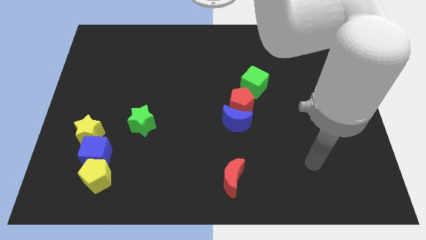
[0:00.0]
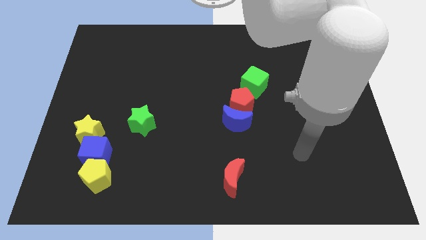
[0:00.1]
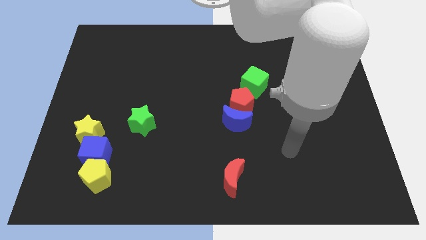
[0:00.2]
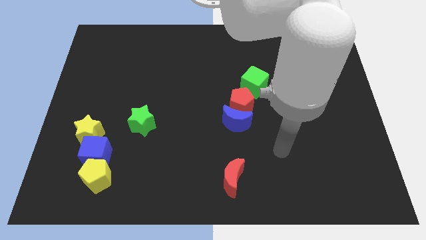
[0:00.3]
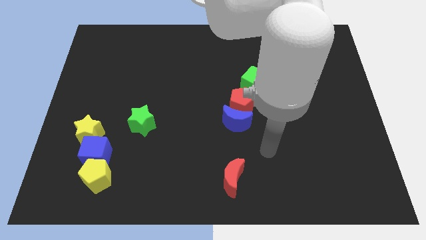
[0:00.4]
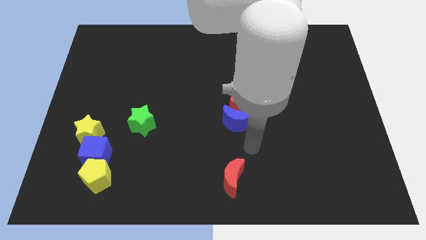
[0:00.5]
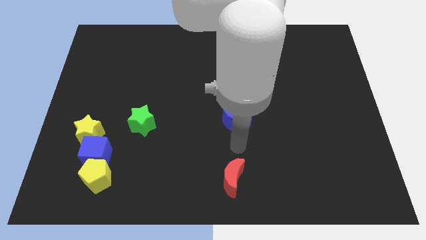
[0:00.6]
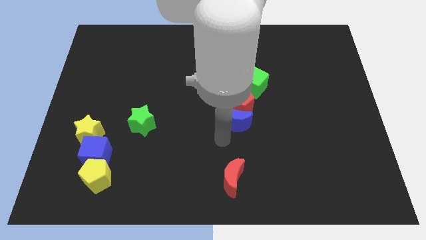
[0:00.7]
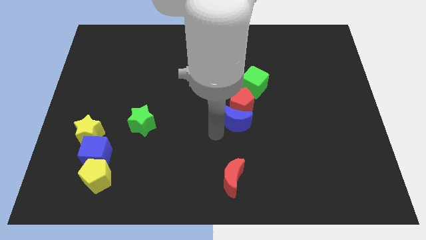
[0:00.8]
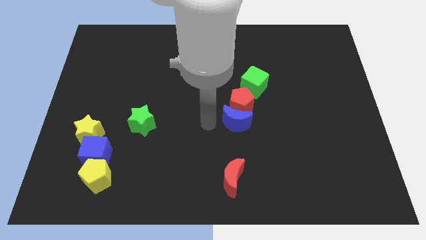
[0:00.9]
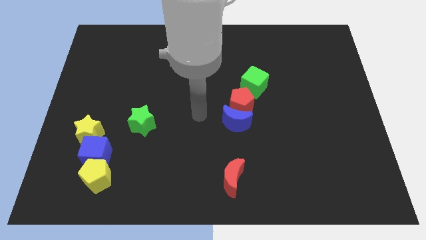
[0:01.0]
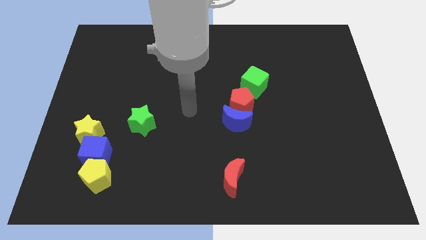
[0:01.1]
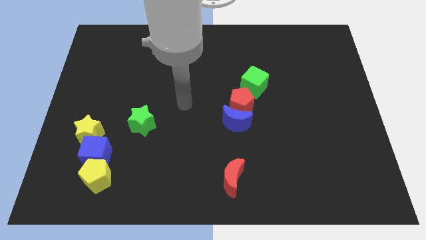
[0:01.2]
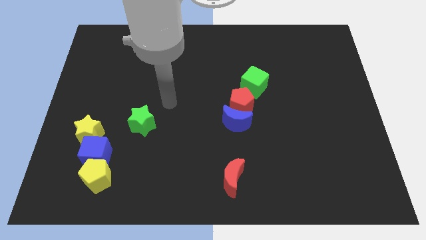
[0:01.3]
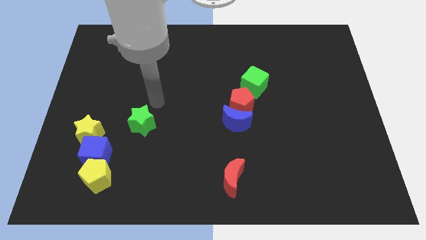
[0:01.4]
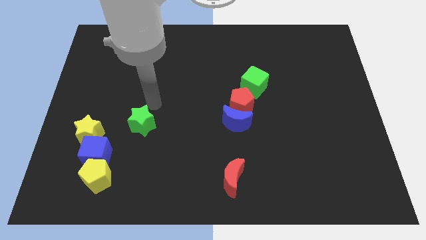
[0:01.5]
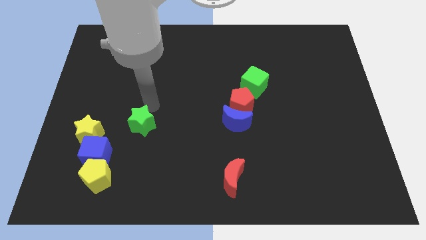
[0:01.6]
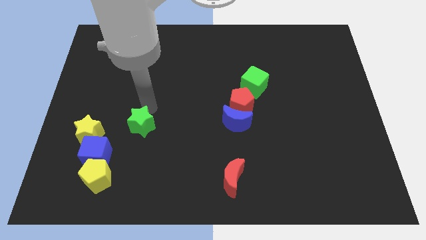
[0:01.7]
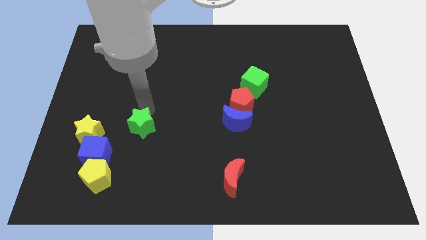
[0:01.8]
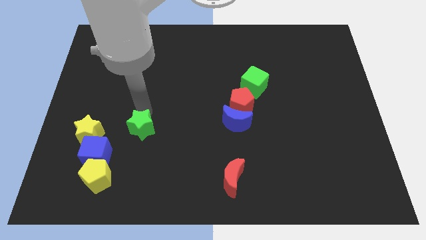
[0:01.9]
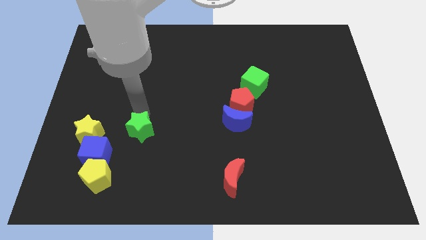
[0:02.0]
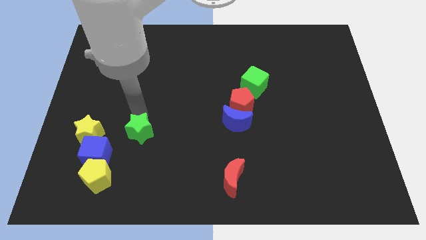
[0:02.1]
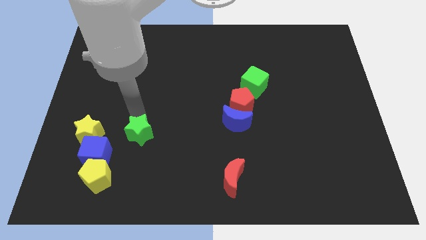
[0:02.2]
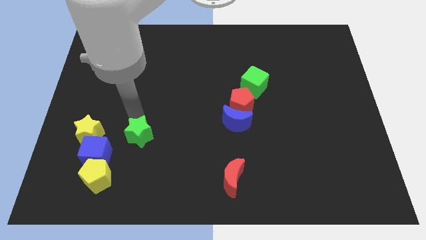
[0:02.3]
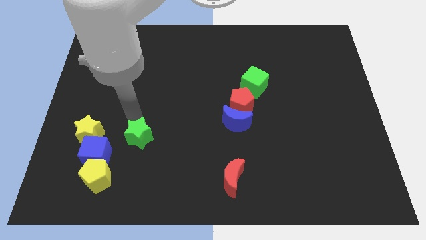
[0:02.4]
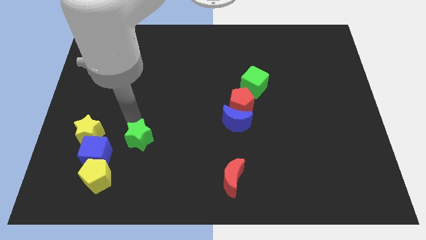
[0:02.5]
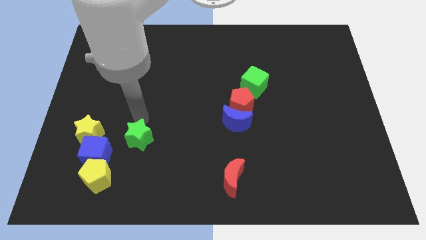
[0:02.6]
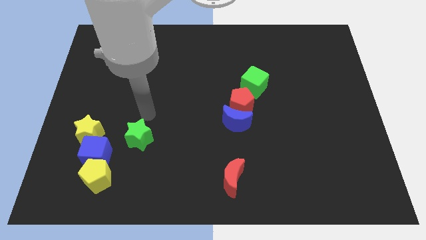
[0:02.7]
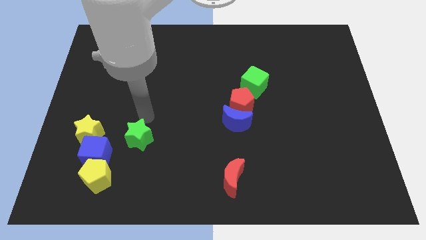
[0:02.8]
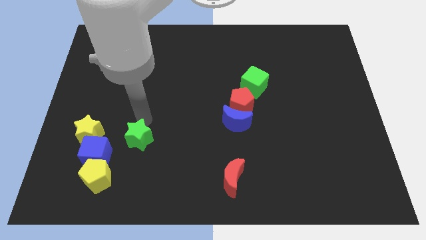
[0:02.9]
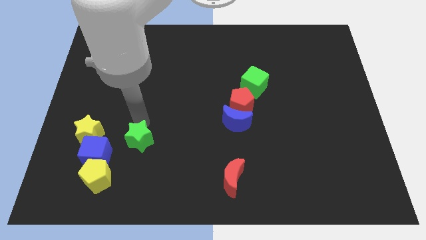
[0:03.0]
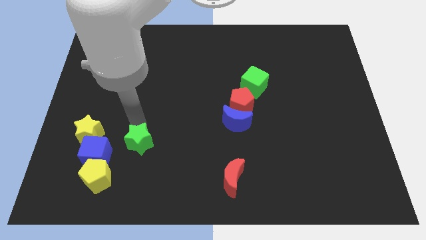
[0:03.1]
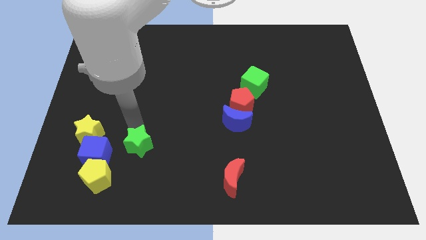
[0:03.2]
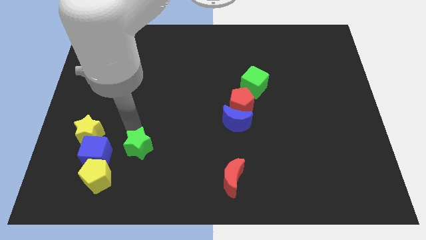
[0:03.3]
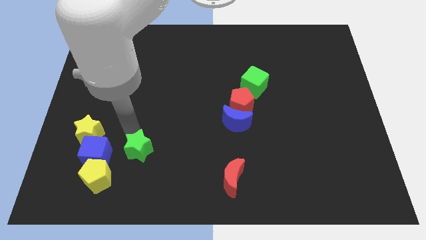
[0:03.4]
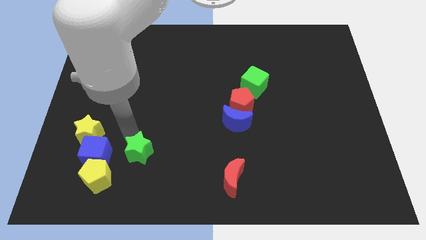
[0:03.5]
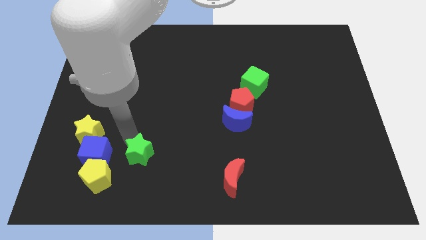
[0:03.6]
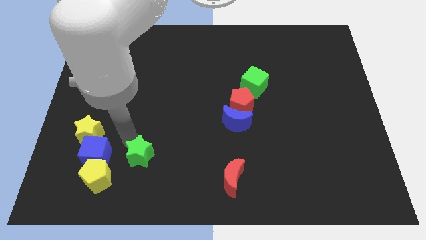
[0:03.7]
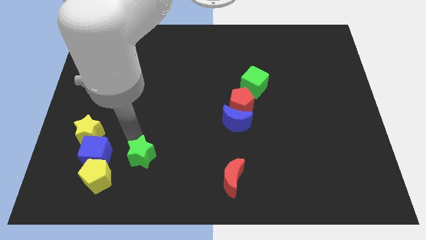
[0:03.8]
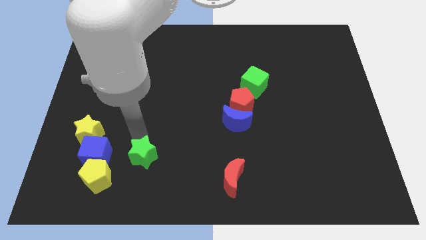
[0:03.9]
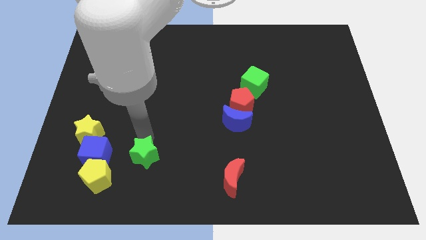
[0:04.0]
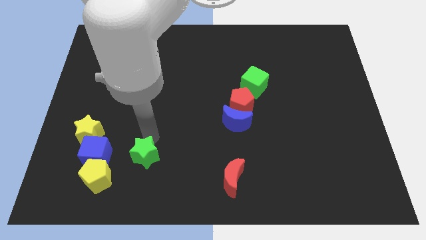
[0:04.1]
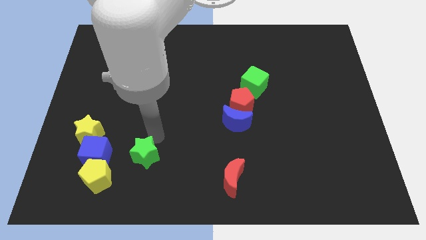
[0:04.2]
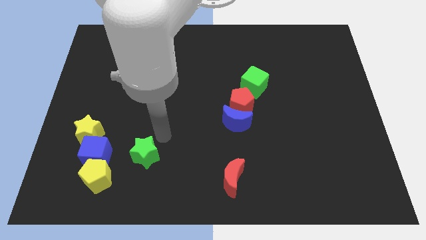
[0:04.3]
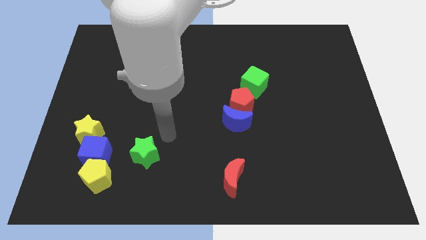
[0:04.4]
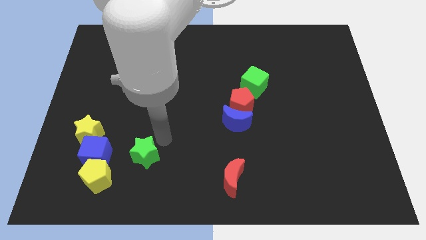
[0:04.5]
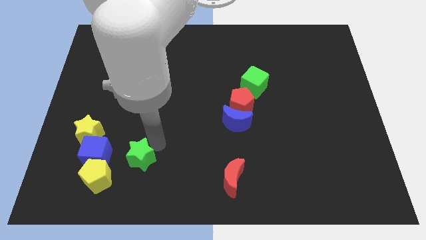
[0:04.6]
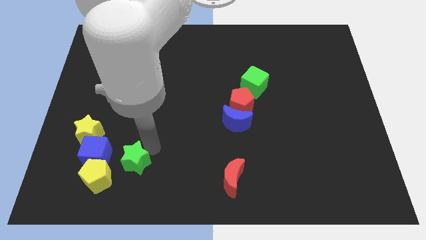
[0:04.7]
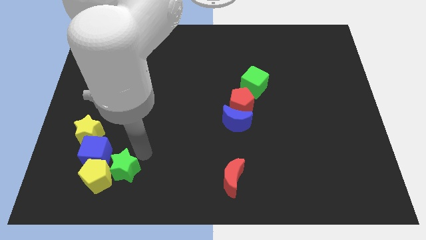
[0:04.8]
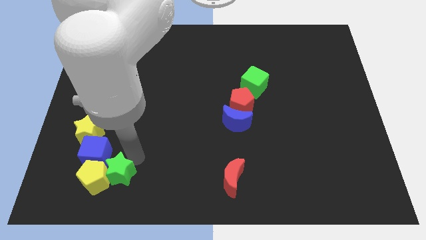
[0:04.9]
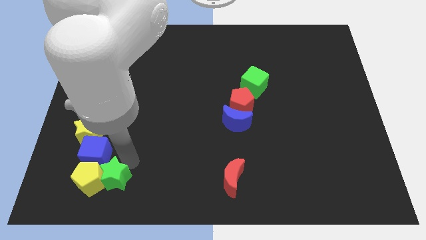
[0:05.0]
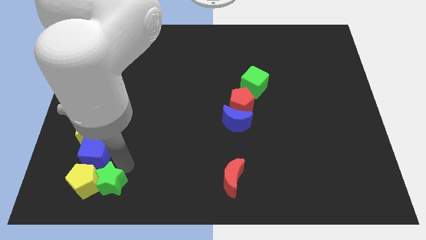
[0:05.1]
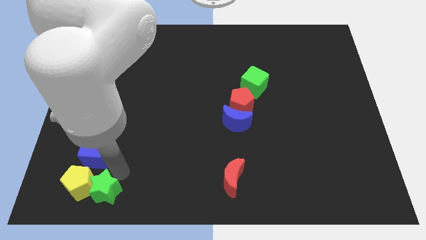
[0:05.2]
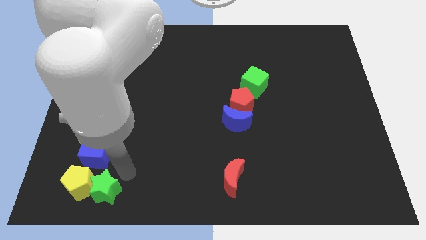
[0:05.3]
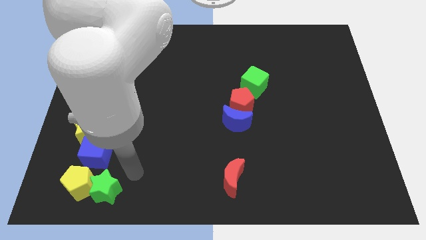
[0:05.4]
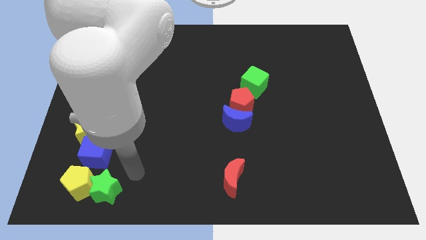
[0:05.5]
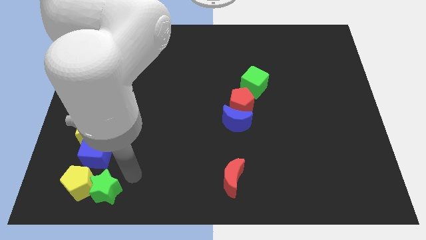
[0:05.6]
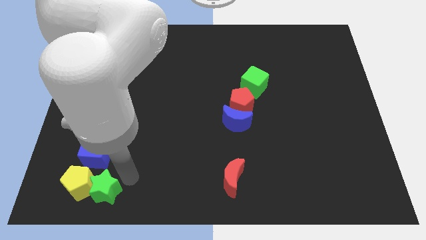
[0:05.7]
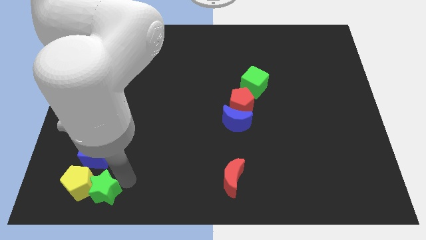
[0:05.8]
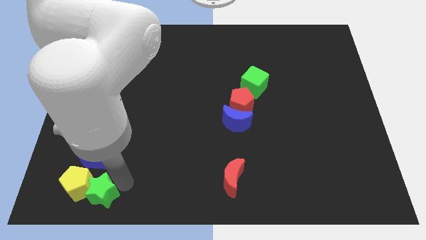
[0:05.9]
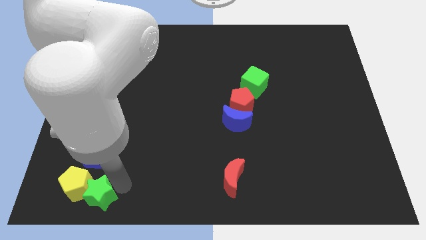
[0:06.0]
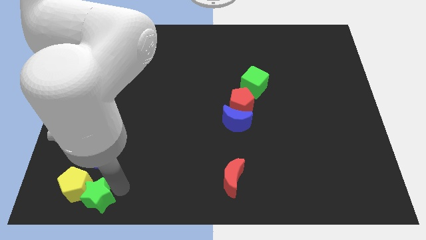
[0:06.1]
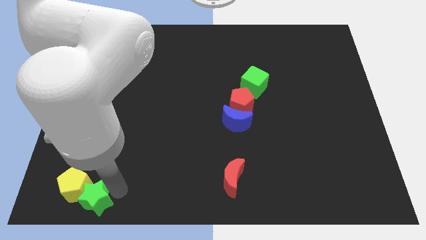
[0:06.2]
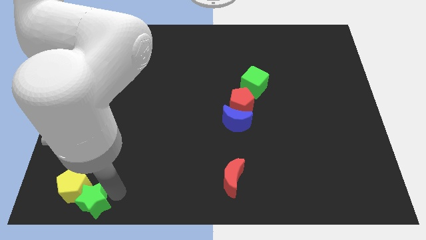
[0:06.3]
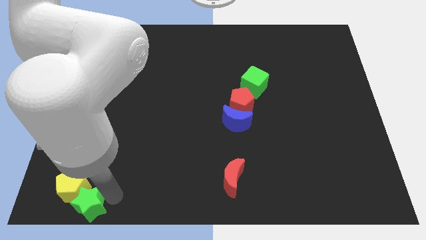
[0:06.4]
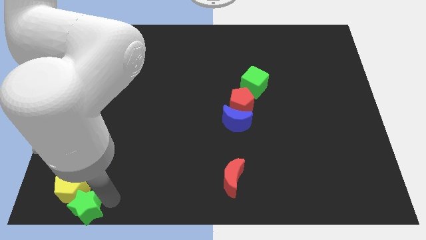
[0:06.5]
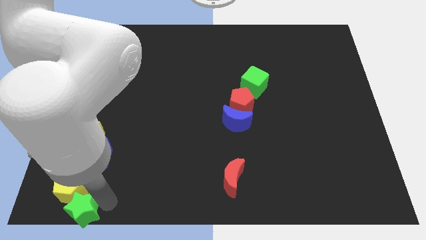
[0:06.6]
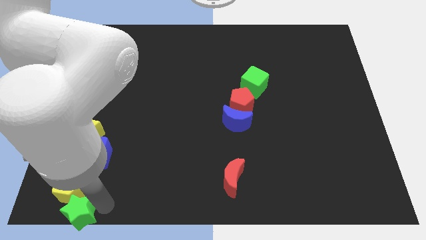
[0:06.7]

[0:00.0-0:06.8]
slide the green star to the bottom left of the board
